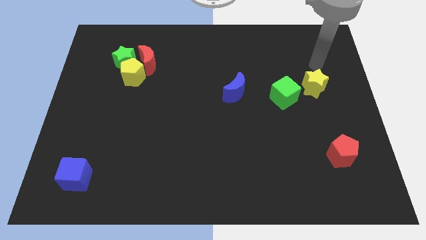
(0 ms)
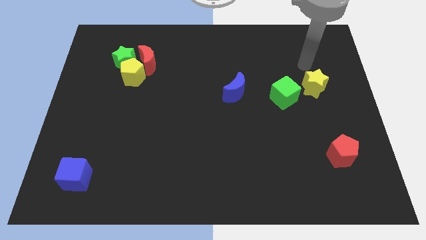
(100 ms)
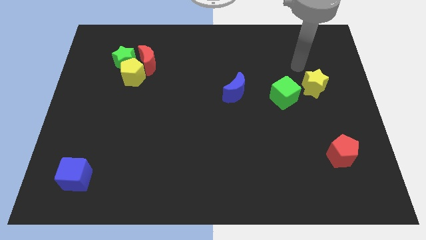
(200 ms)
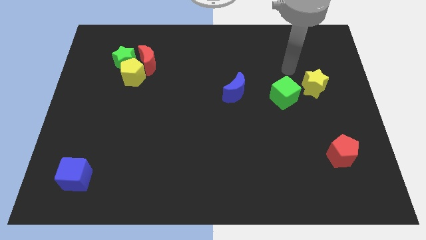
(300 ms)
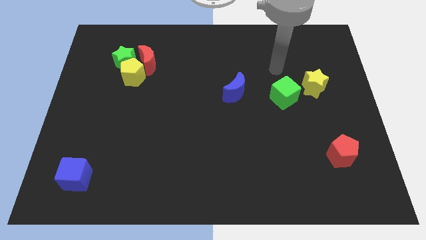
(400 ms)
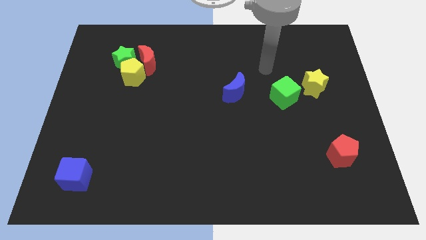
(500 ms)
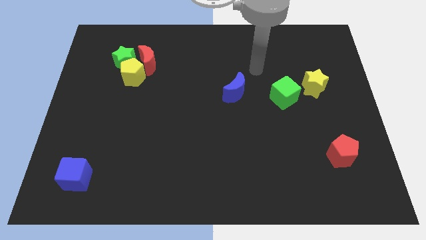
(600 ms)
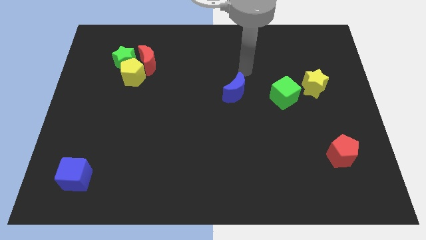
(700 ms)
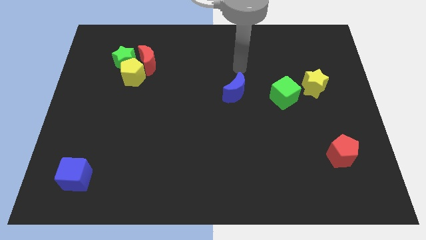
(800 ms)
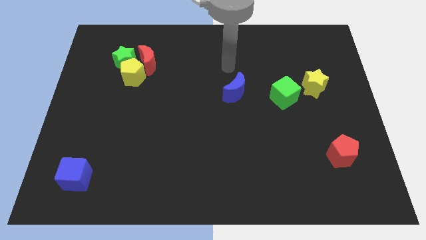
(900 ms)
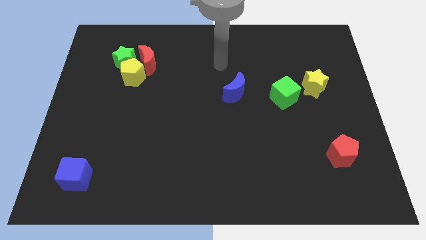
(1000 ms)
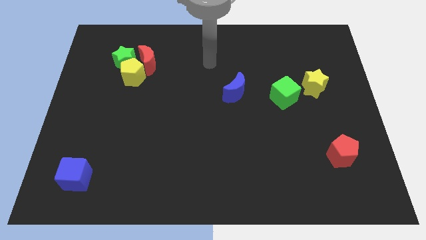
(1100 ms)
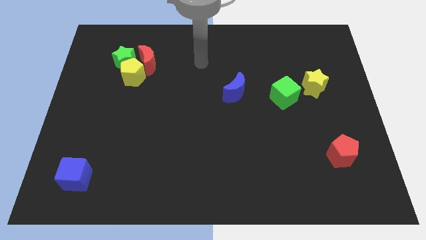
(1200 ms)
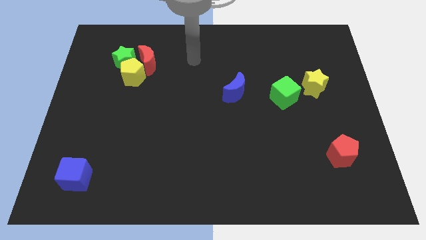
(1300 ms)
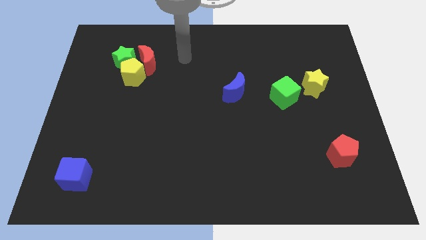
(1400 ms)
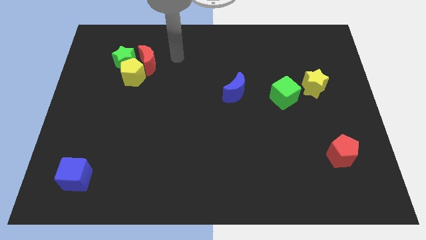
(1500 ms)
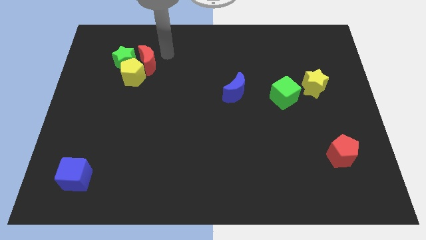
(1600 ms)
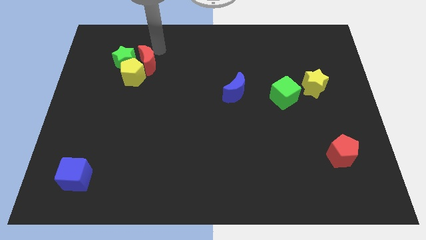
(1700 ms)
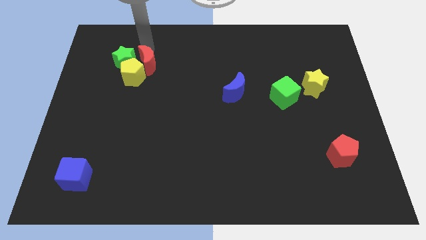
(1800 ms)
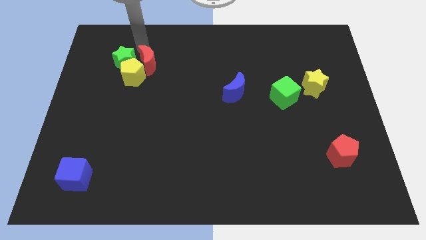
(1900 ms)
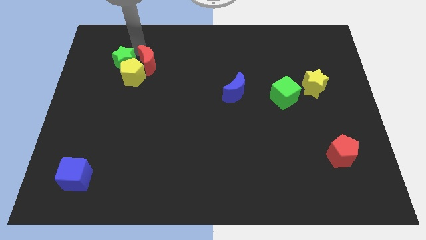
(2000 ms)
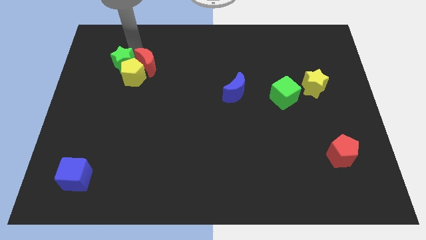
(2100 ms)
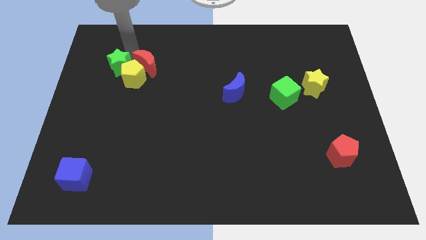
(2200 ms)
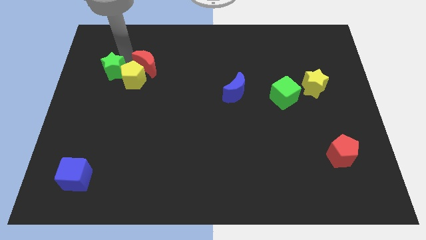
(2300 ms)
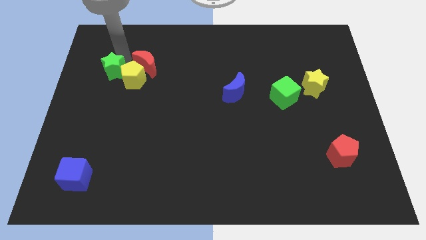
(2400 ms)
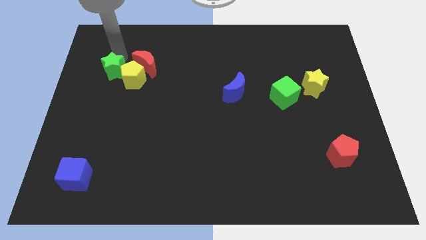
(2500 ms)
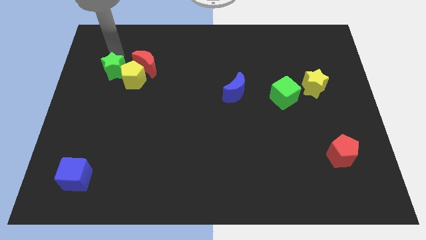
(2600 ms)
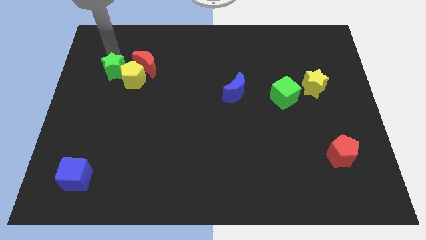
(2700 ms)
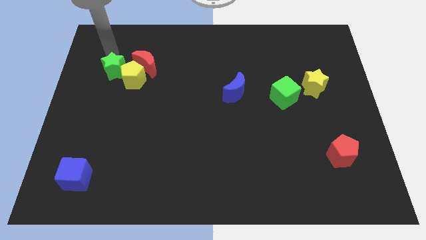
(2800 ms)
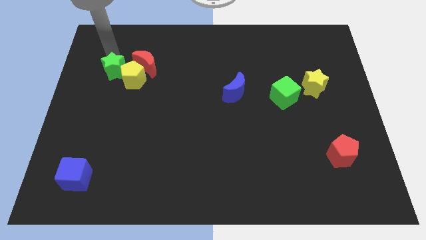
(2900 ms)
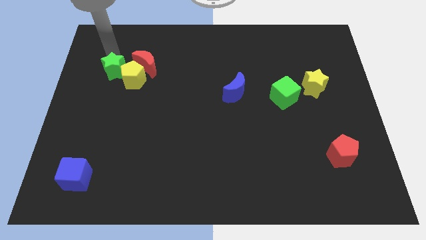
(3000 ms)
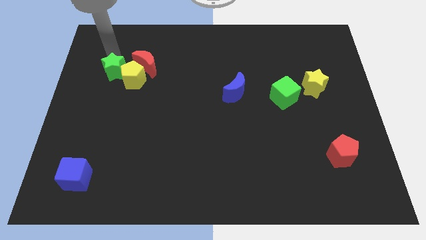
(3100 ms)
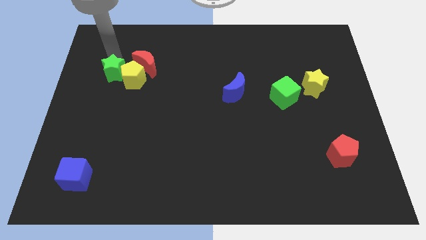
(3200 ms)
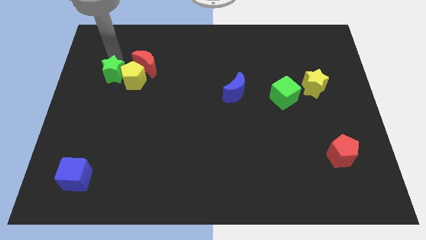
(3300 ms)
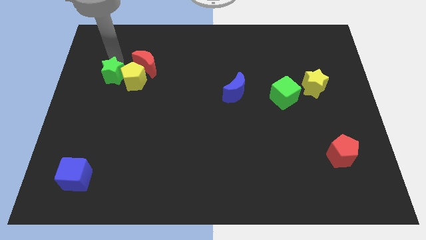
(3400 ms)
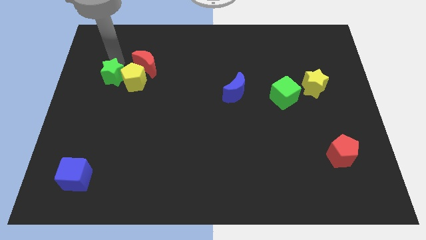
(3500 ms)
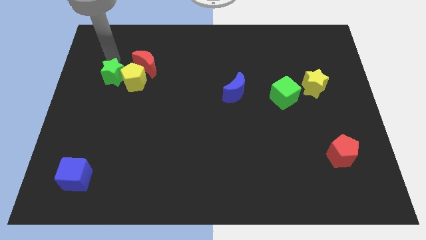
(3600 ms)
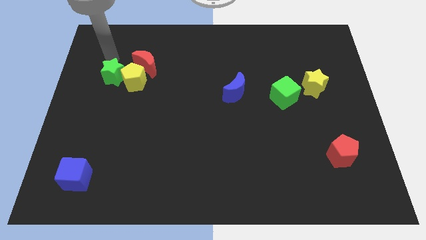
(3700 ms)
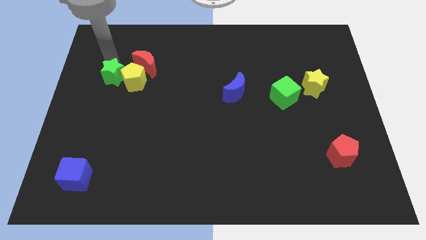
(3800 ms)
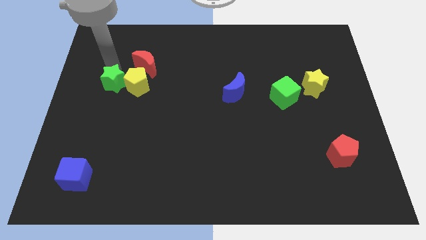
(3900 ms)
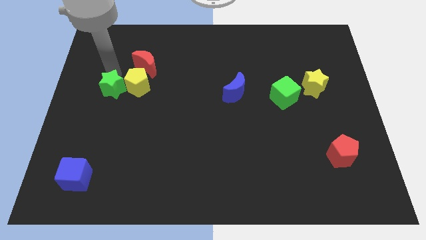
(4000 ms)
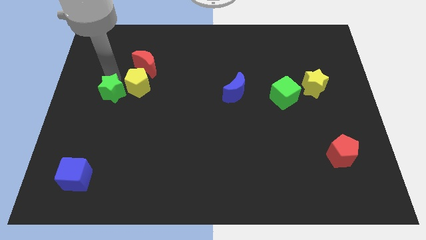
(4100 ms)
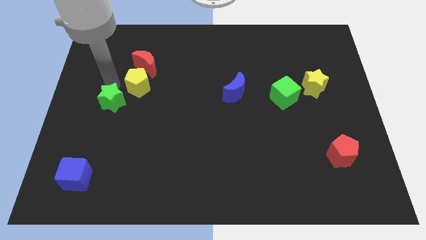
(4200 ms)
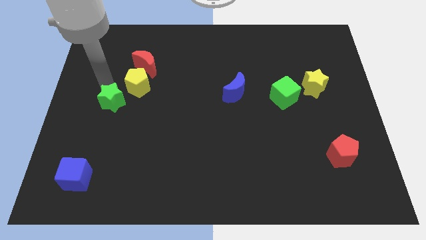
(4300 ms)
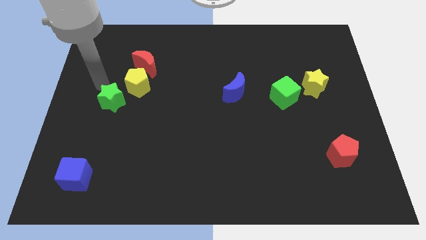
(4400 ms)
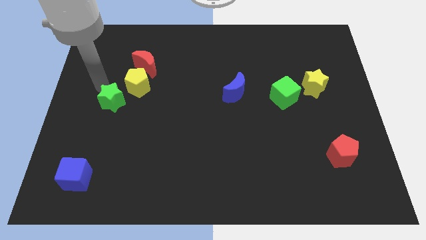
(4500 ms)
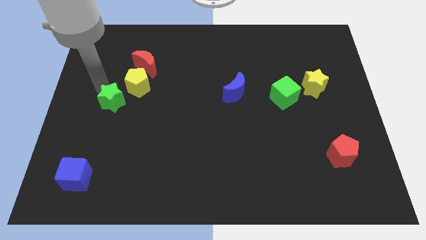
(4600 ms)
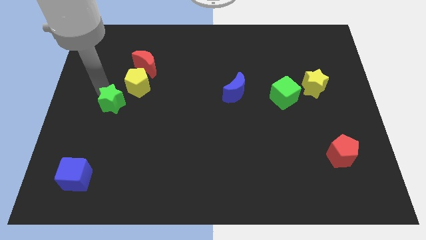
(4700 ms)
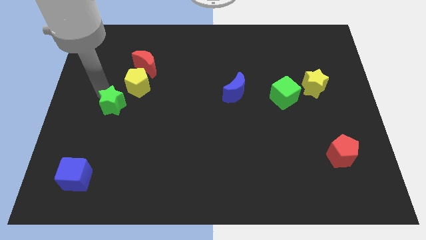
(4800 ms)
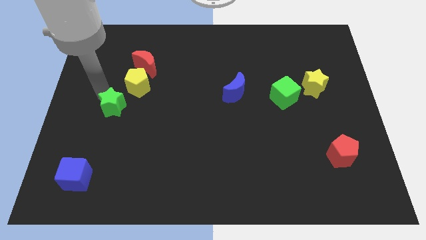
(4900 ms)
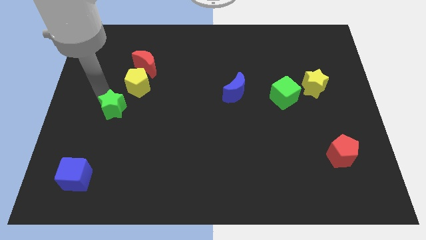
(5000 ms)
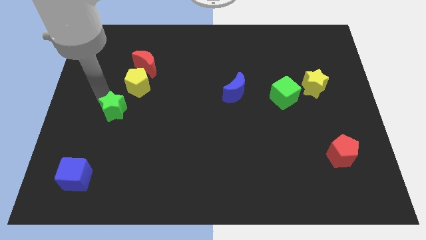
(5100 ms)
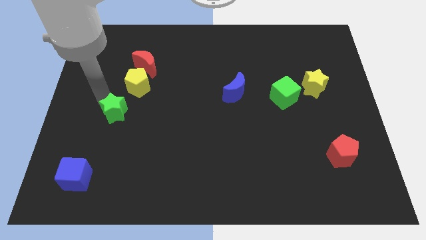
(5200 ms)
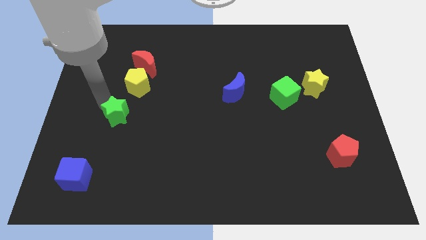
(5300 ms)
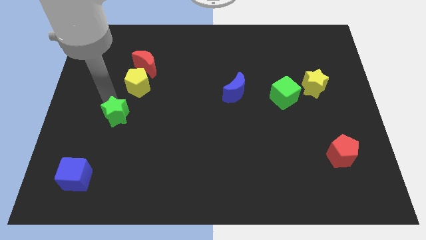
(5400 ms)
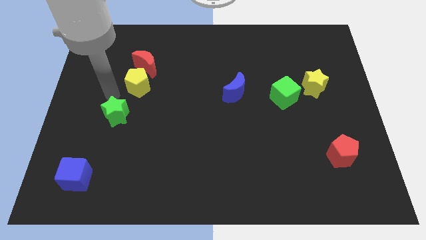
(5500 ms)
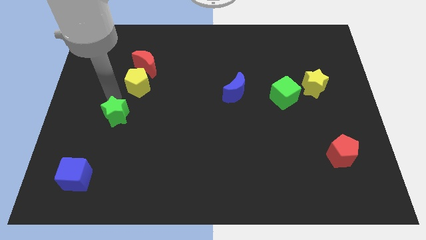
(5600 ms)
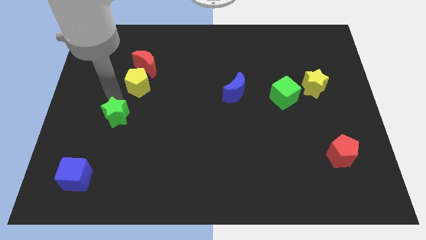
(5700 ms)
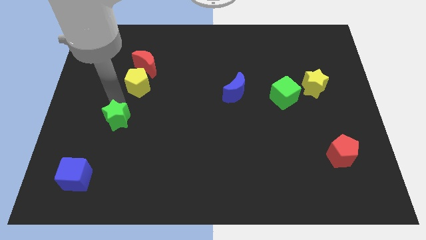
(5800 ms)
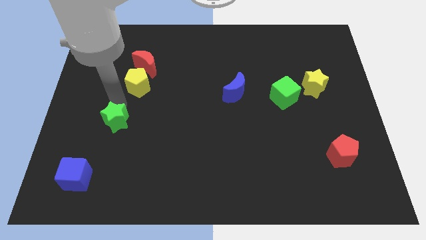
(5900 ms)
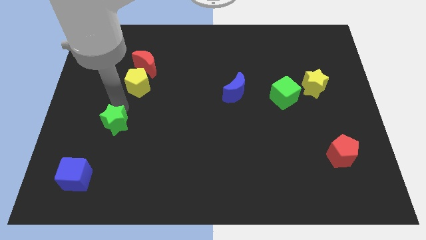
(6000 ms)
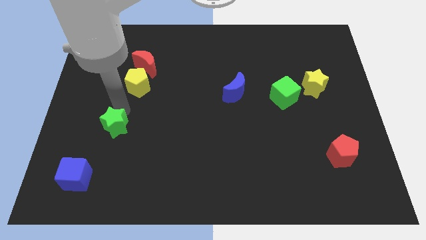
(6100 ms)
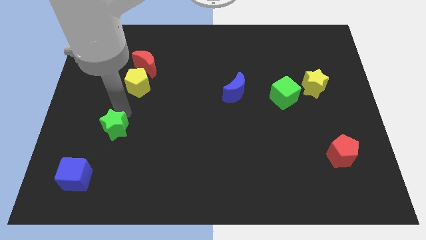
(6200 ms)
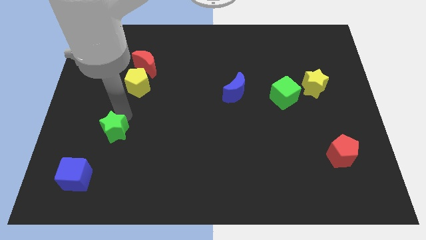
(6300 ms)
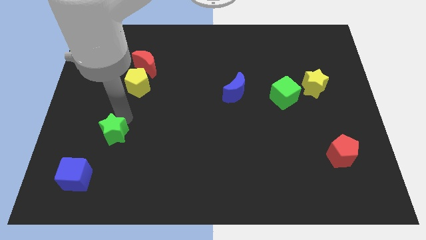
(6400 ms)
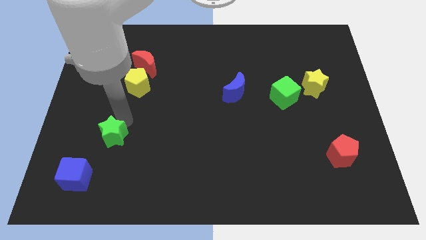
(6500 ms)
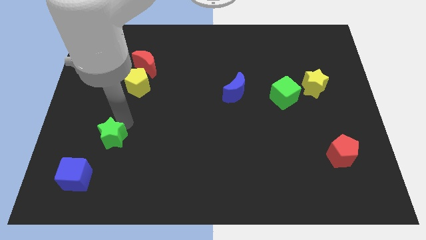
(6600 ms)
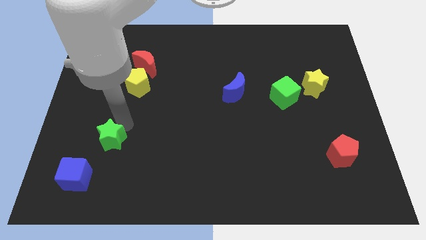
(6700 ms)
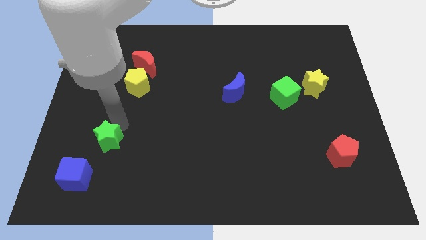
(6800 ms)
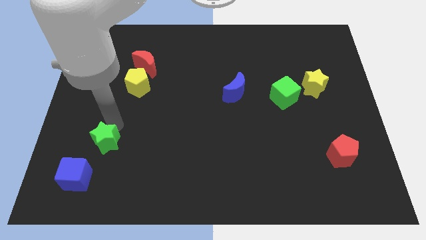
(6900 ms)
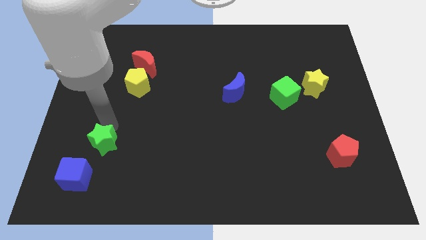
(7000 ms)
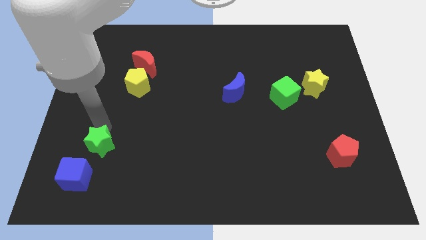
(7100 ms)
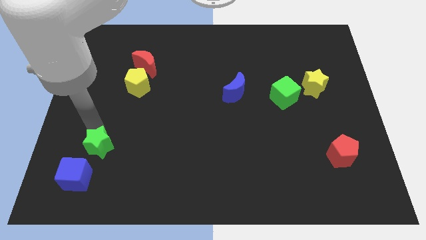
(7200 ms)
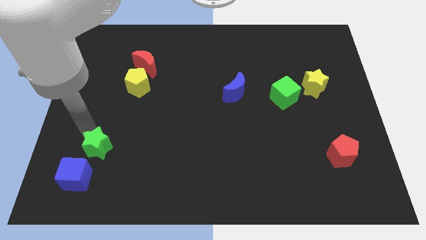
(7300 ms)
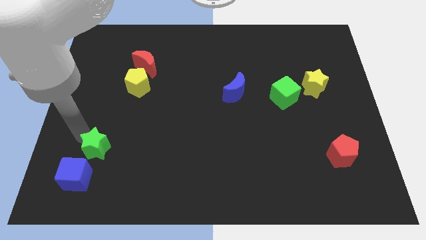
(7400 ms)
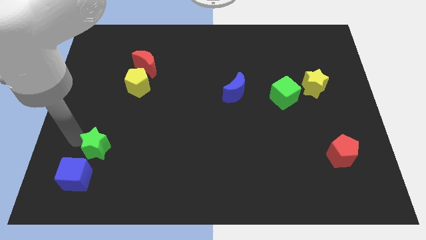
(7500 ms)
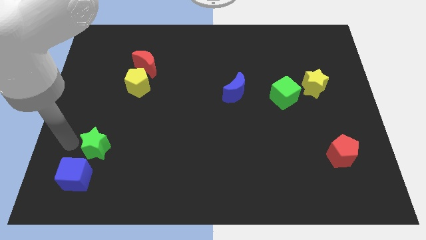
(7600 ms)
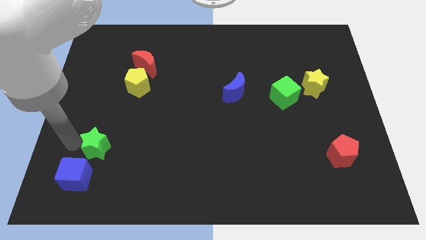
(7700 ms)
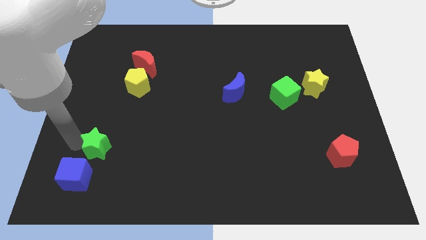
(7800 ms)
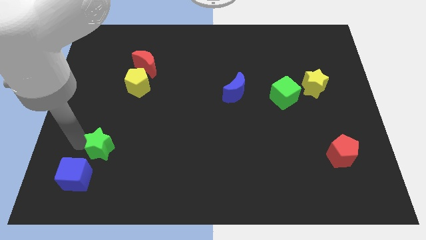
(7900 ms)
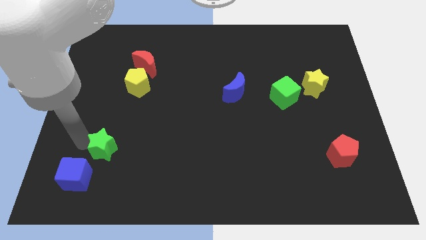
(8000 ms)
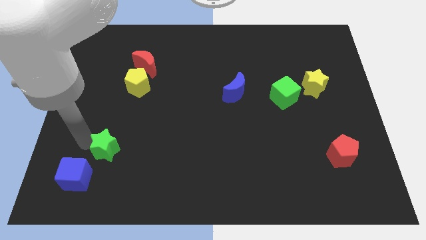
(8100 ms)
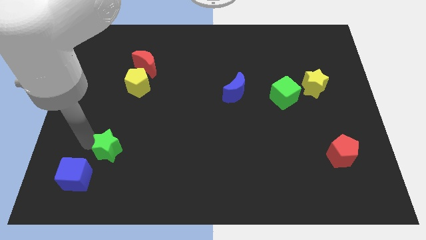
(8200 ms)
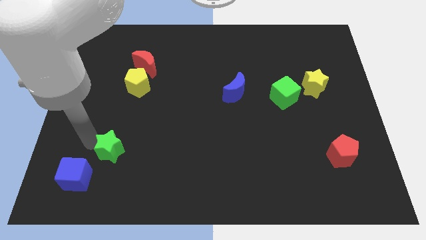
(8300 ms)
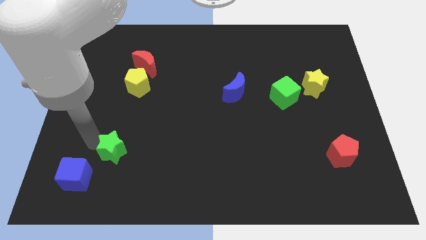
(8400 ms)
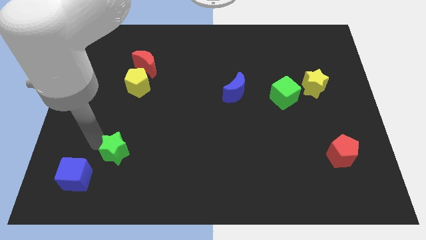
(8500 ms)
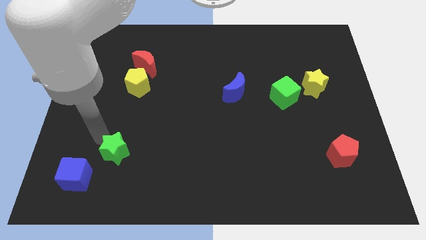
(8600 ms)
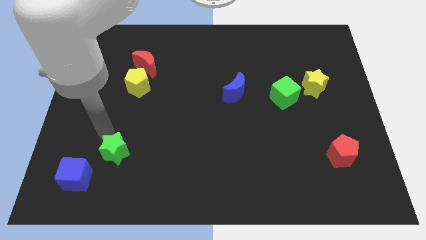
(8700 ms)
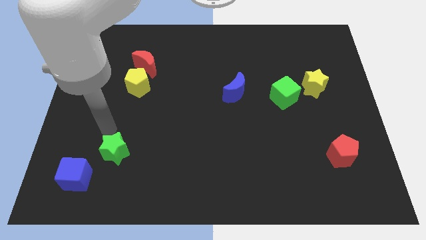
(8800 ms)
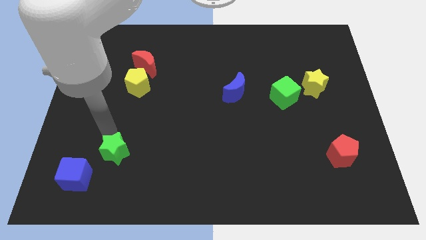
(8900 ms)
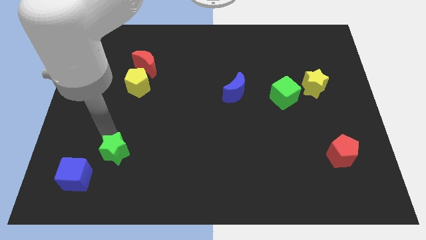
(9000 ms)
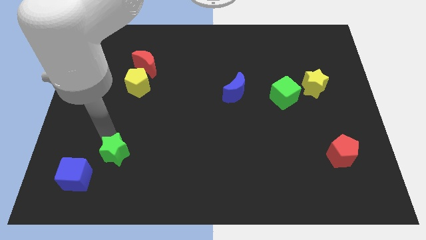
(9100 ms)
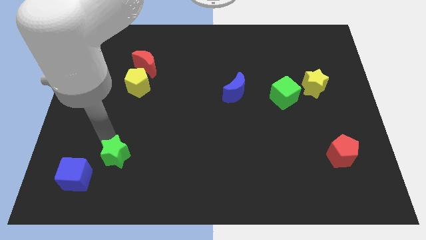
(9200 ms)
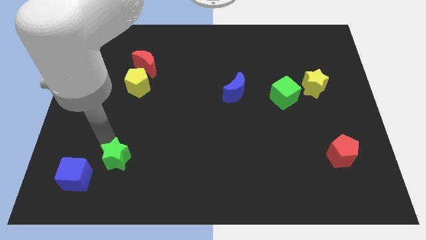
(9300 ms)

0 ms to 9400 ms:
put the green star to the right of the blue cube
